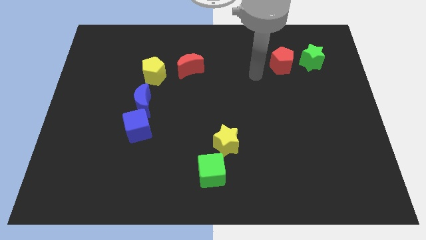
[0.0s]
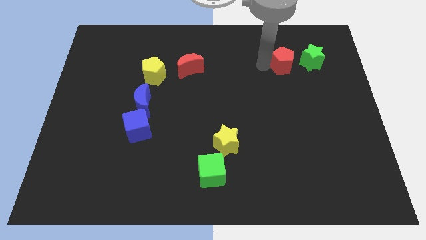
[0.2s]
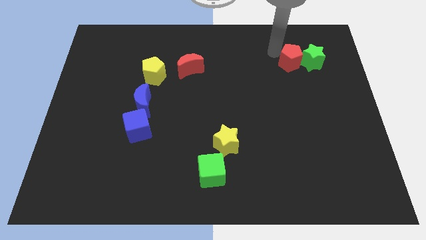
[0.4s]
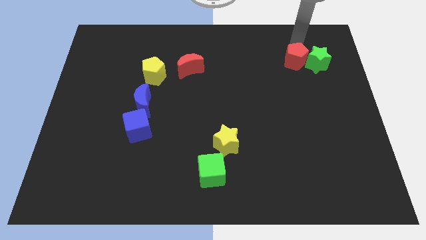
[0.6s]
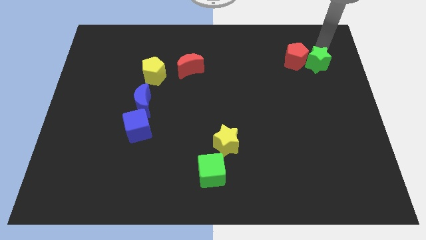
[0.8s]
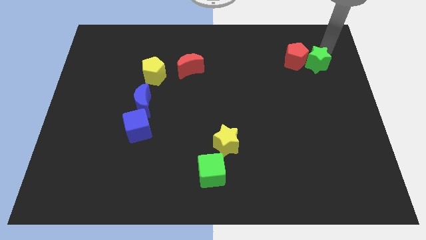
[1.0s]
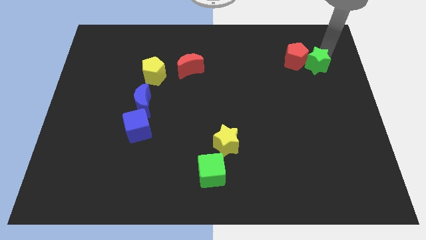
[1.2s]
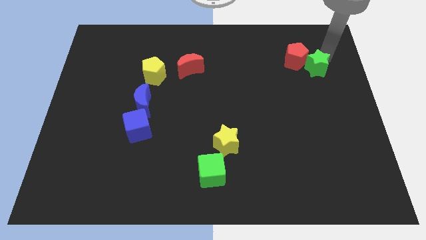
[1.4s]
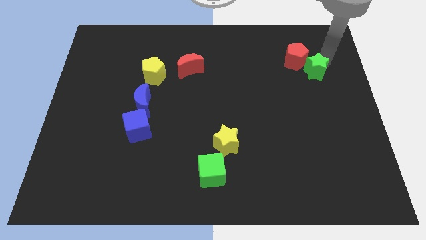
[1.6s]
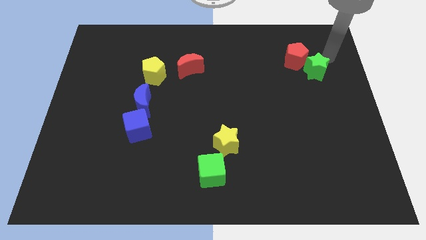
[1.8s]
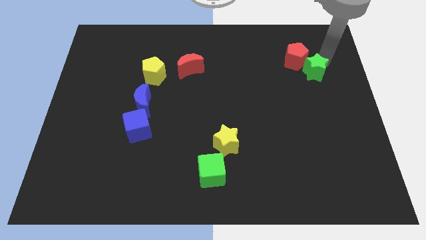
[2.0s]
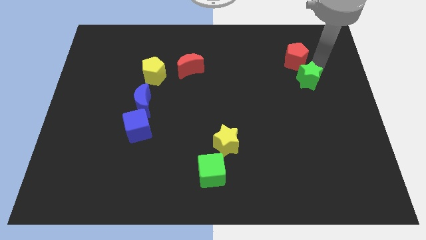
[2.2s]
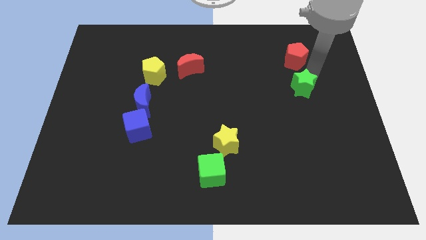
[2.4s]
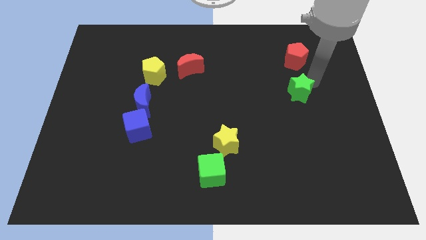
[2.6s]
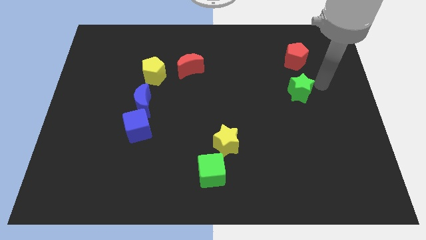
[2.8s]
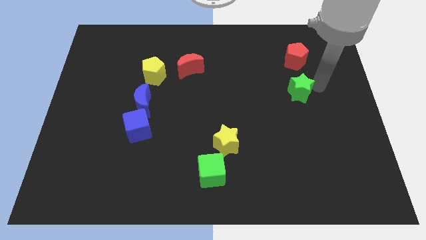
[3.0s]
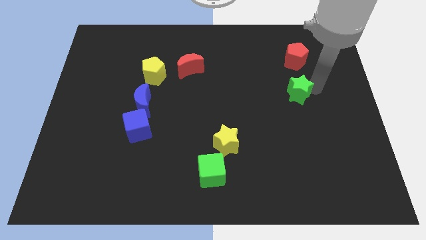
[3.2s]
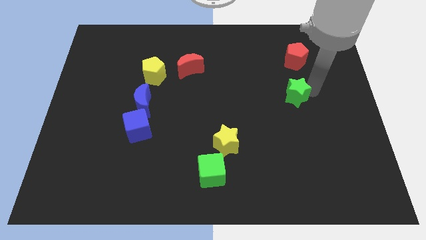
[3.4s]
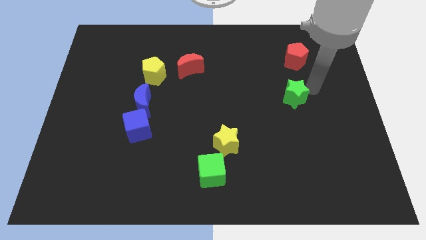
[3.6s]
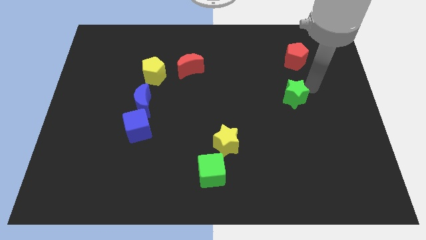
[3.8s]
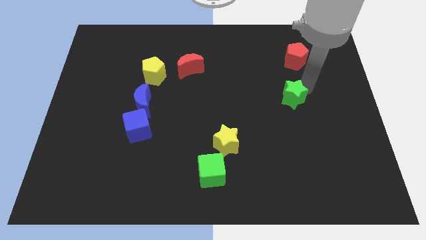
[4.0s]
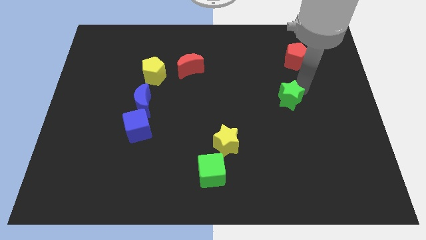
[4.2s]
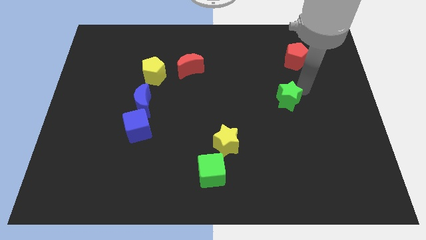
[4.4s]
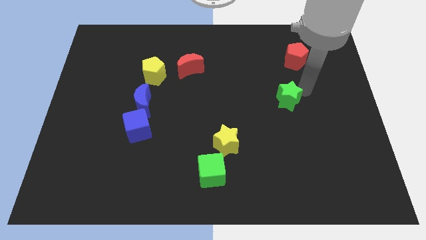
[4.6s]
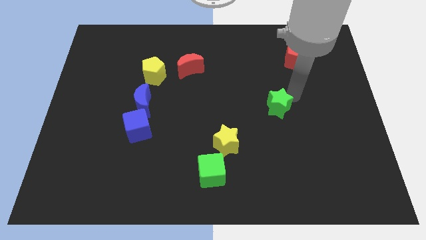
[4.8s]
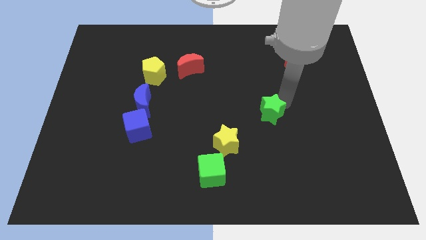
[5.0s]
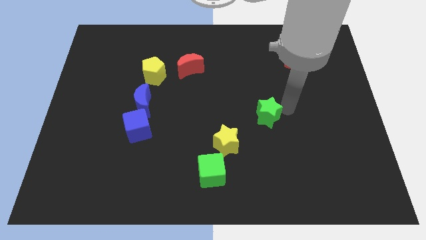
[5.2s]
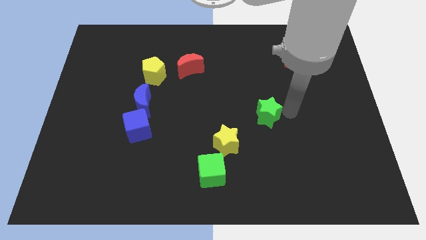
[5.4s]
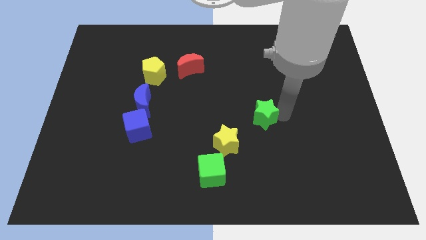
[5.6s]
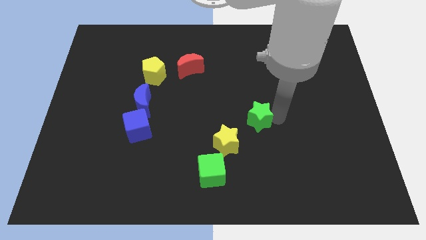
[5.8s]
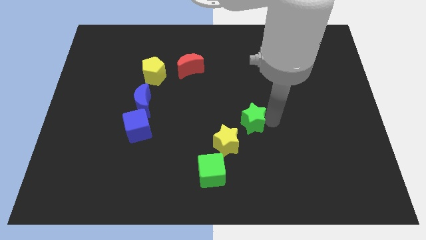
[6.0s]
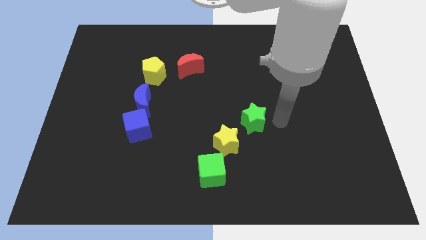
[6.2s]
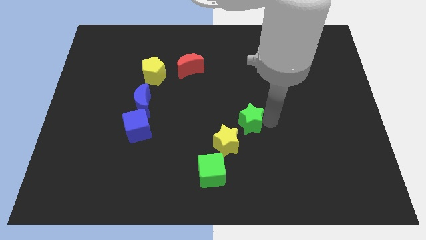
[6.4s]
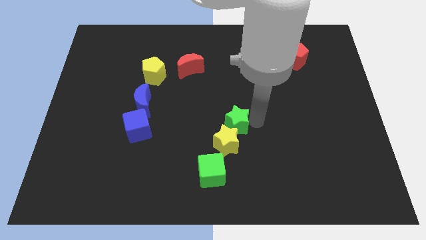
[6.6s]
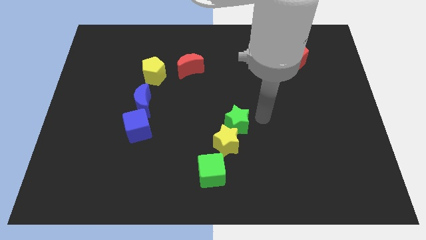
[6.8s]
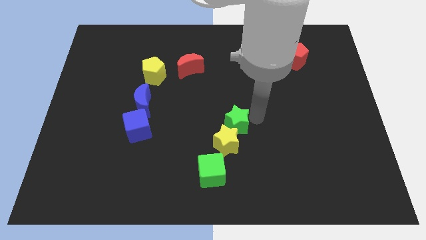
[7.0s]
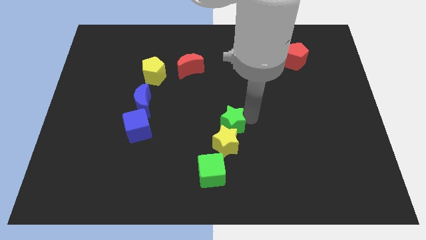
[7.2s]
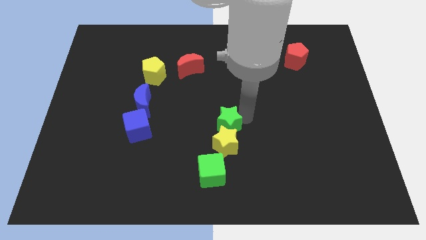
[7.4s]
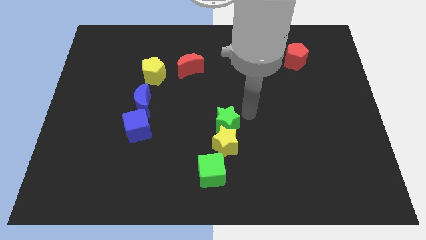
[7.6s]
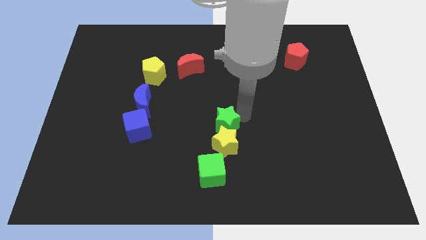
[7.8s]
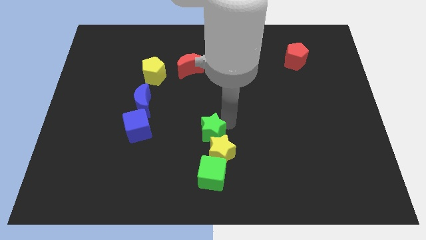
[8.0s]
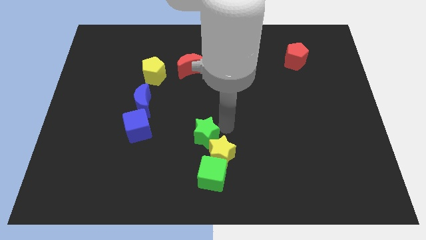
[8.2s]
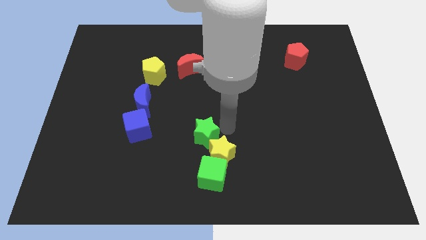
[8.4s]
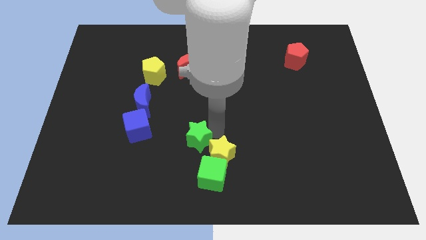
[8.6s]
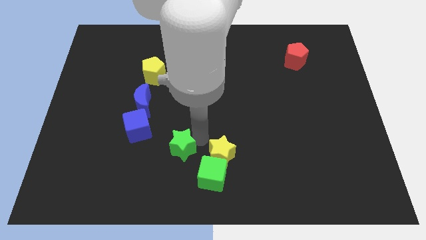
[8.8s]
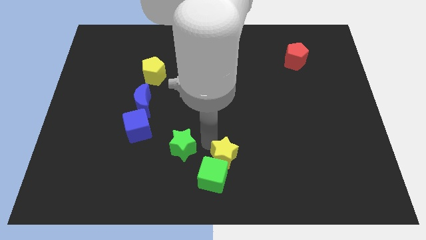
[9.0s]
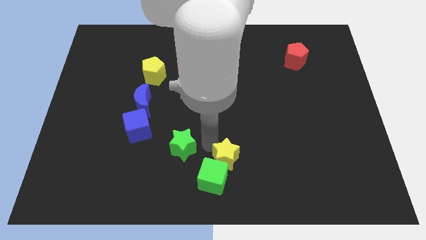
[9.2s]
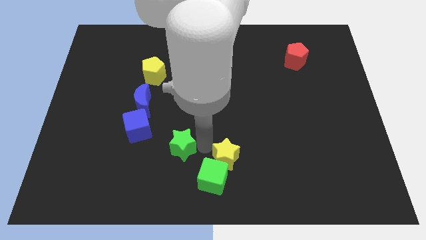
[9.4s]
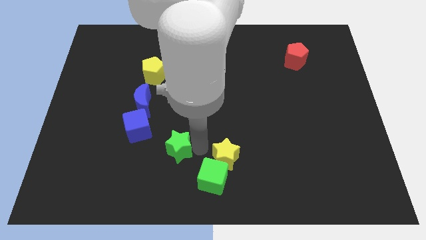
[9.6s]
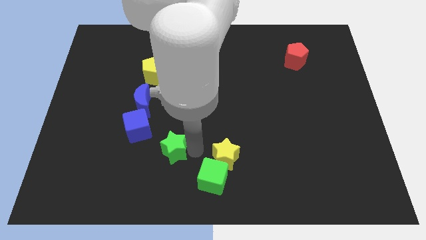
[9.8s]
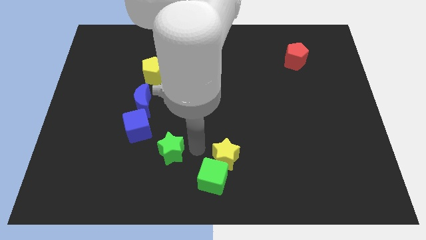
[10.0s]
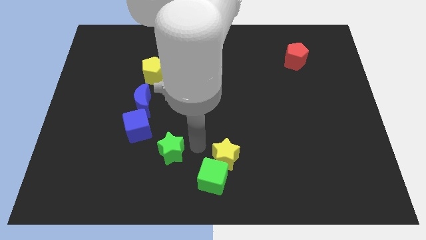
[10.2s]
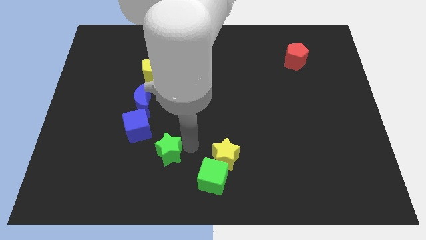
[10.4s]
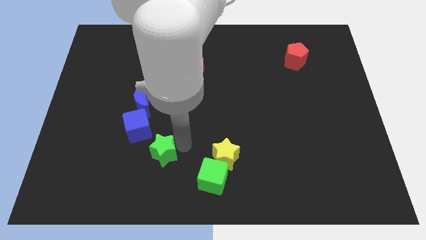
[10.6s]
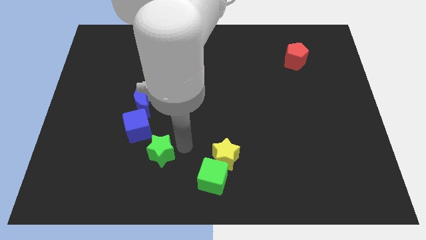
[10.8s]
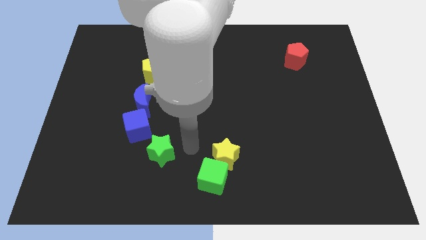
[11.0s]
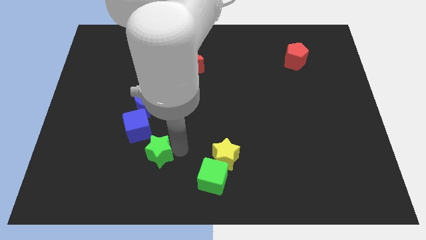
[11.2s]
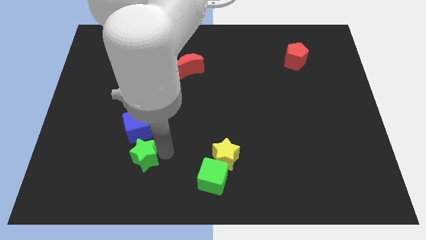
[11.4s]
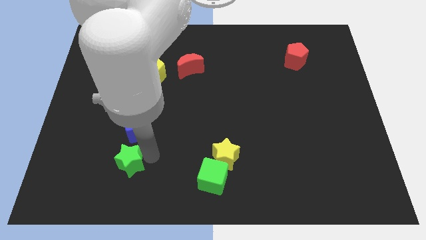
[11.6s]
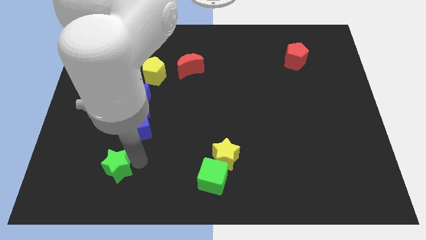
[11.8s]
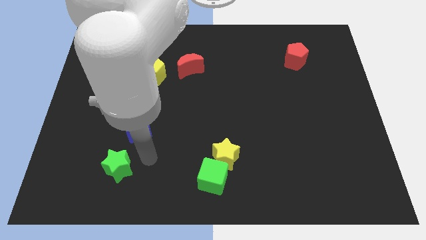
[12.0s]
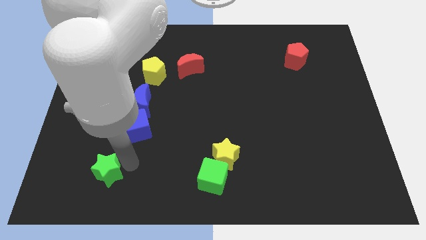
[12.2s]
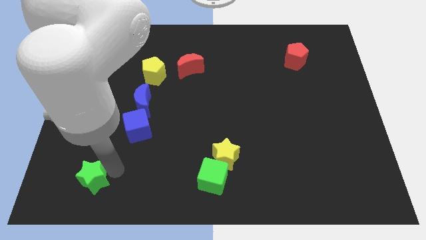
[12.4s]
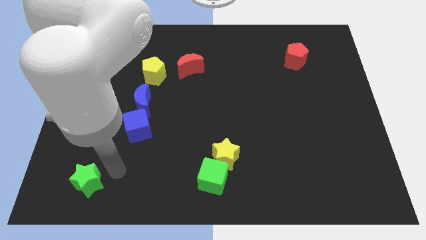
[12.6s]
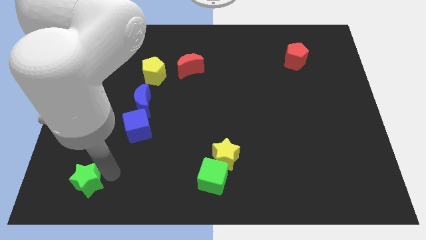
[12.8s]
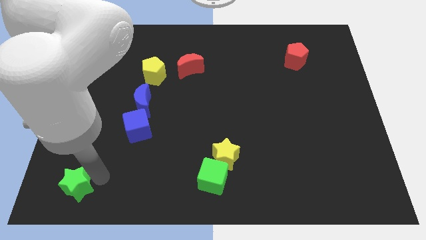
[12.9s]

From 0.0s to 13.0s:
put the green star to the lower left corner

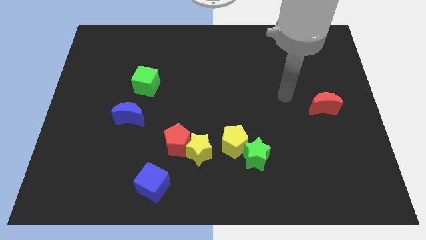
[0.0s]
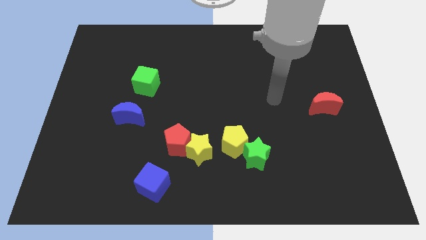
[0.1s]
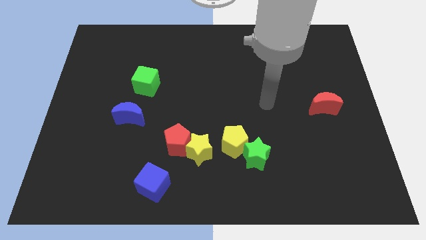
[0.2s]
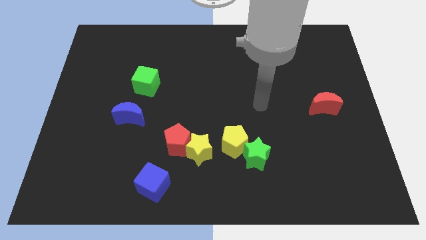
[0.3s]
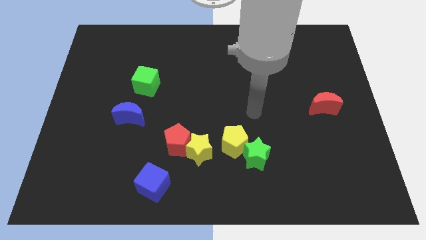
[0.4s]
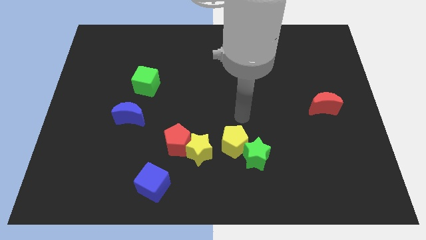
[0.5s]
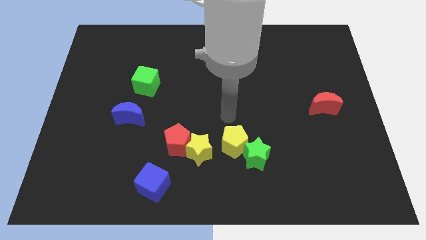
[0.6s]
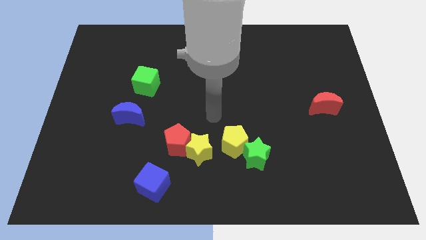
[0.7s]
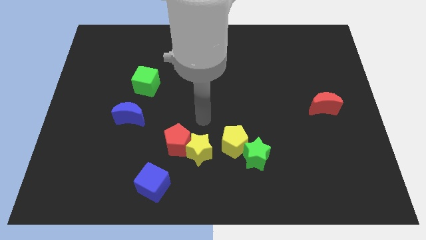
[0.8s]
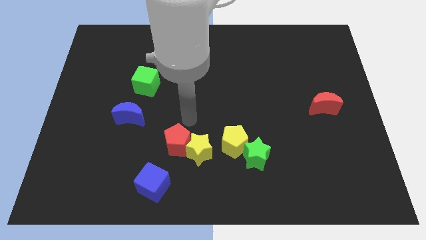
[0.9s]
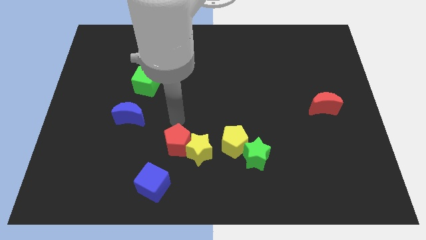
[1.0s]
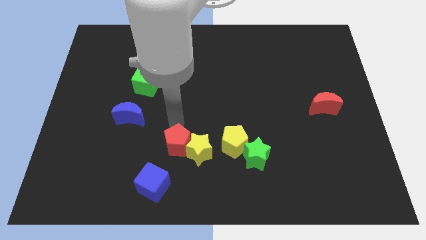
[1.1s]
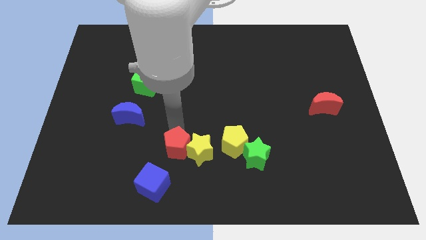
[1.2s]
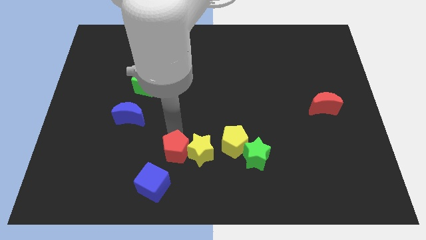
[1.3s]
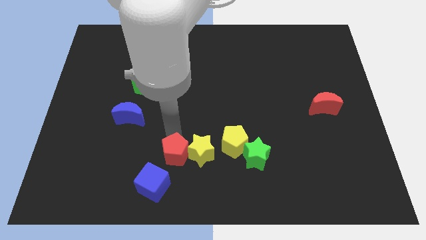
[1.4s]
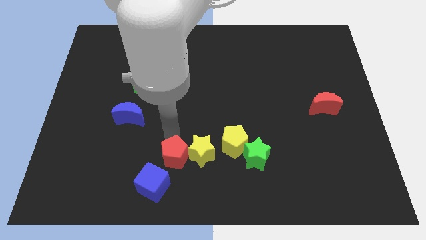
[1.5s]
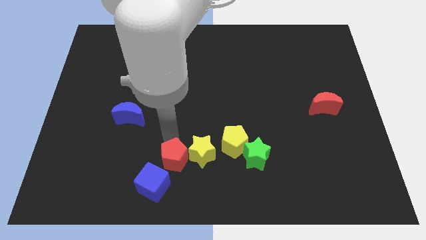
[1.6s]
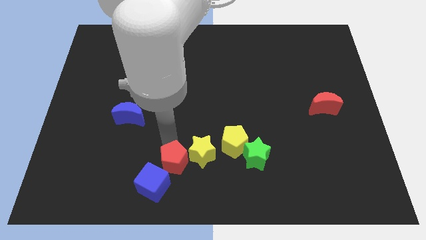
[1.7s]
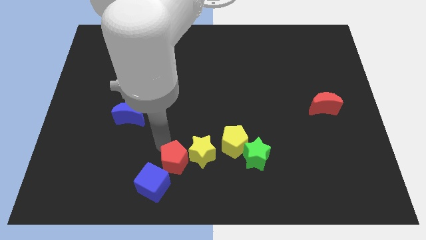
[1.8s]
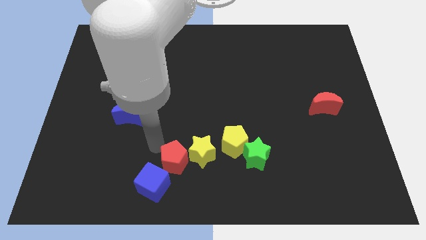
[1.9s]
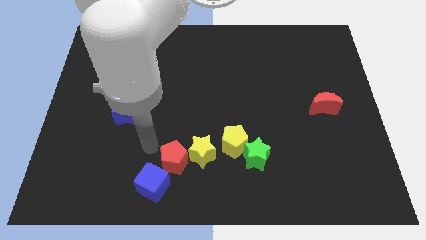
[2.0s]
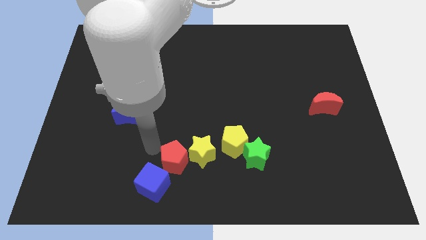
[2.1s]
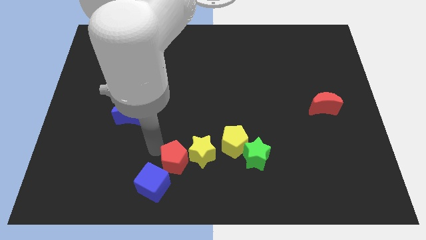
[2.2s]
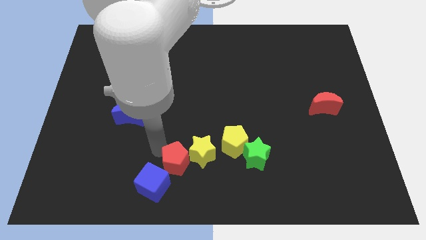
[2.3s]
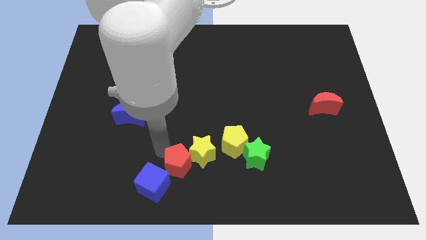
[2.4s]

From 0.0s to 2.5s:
slide the red pentagon to the bottom side
